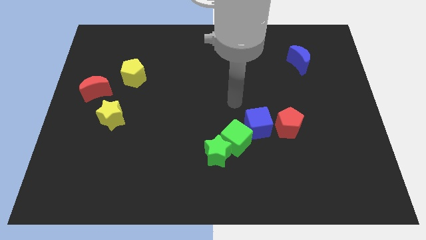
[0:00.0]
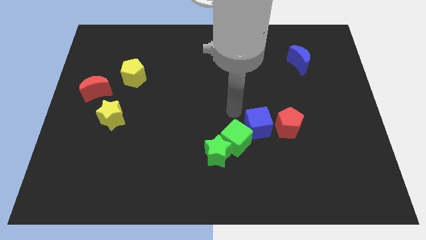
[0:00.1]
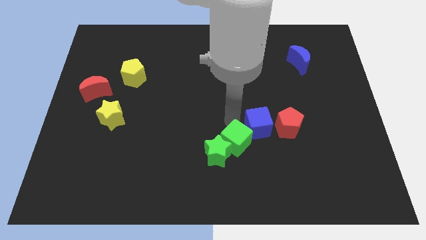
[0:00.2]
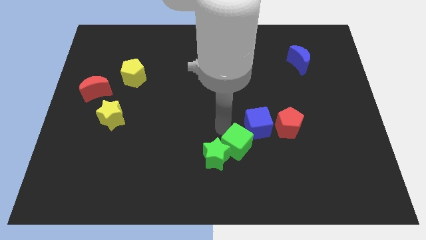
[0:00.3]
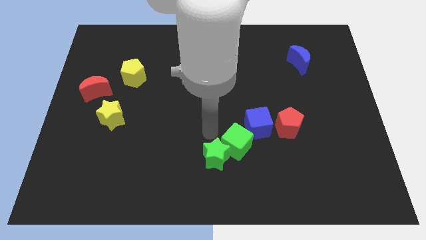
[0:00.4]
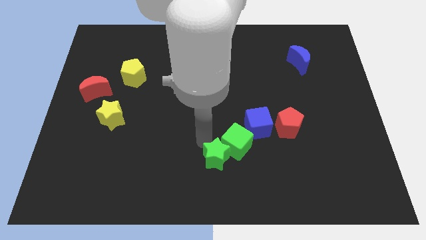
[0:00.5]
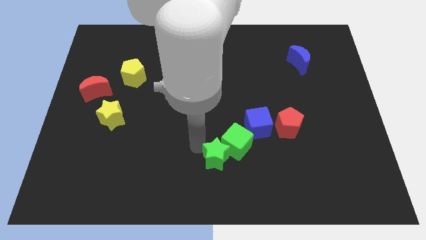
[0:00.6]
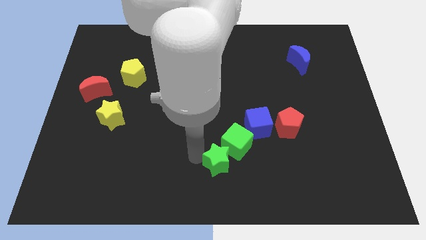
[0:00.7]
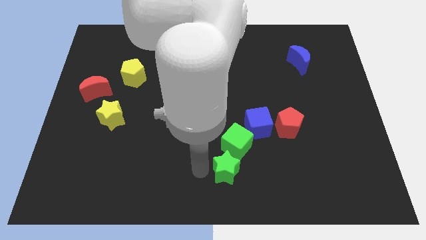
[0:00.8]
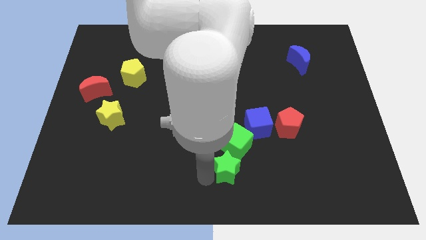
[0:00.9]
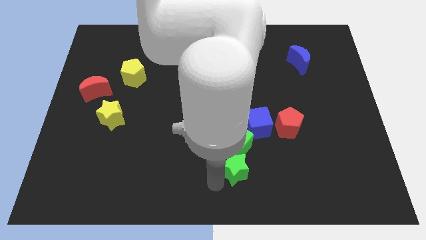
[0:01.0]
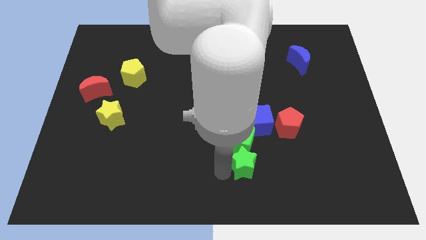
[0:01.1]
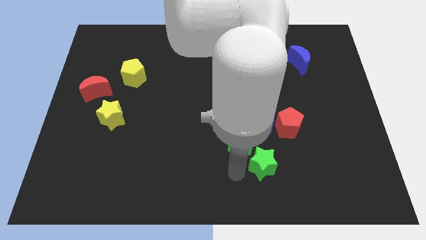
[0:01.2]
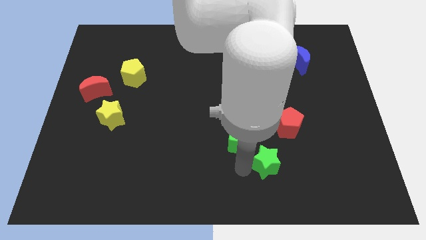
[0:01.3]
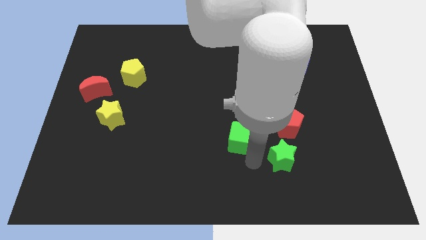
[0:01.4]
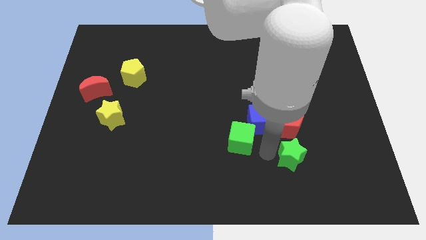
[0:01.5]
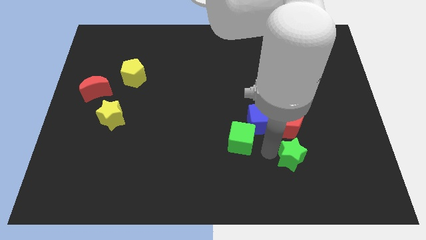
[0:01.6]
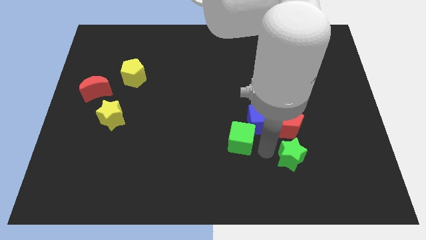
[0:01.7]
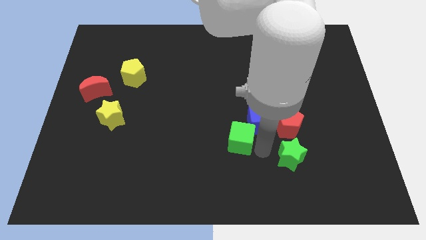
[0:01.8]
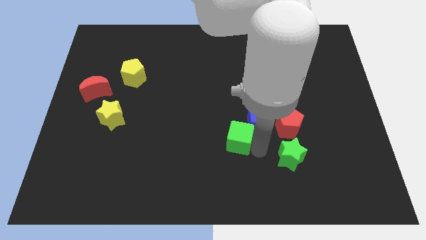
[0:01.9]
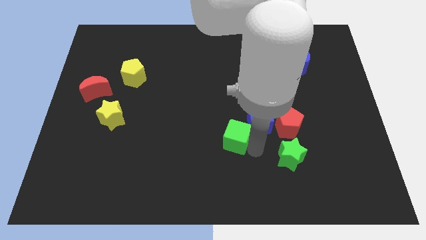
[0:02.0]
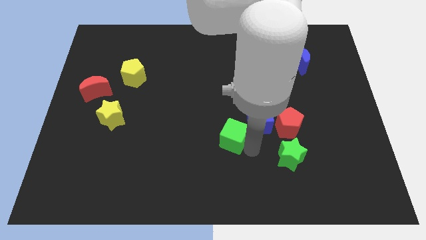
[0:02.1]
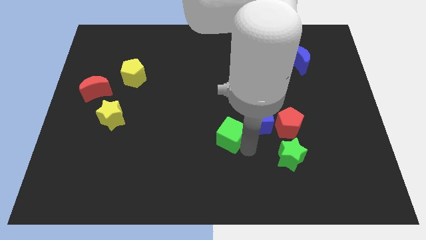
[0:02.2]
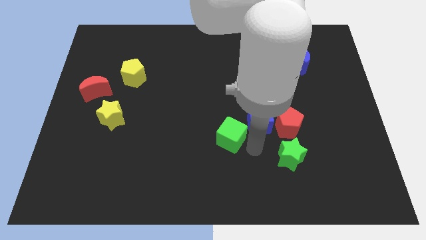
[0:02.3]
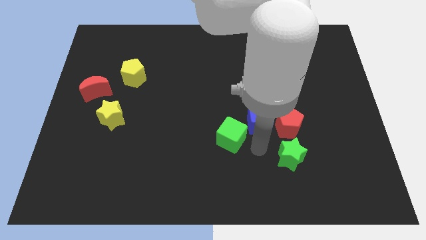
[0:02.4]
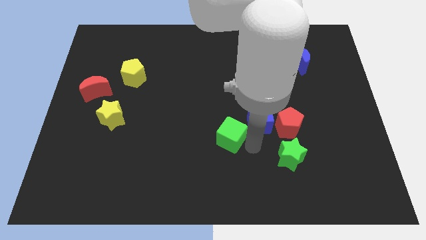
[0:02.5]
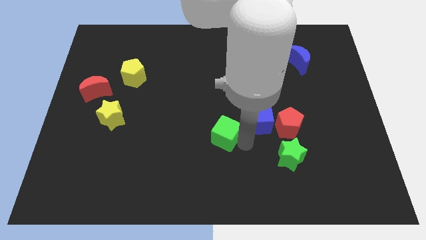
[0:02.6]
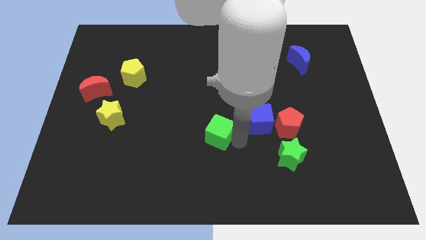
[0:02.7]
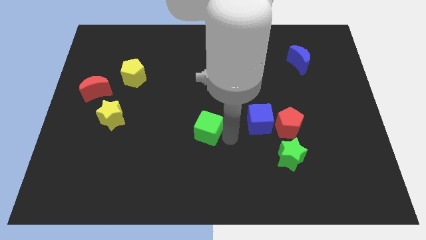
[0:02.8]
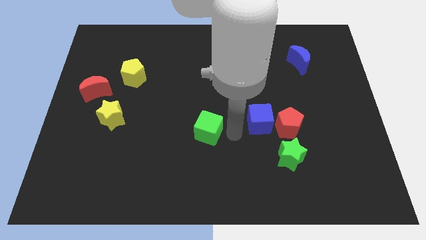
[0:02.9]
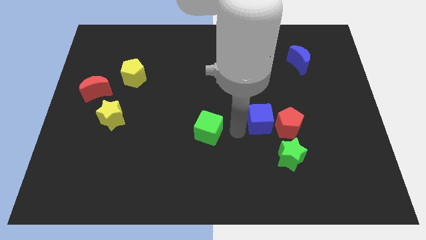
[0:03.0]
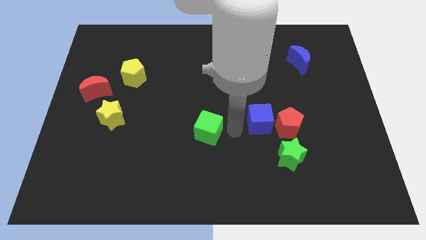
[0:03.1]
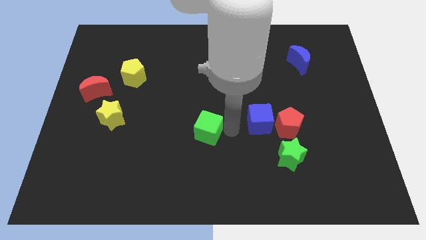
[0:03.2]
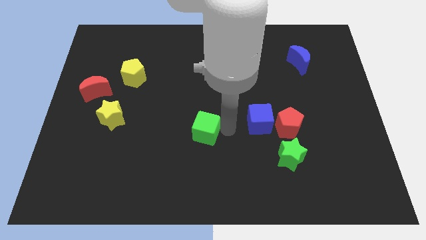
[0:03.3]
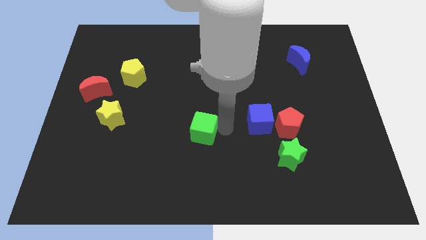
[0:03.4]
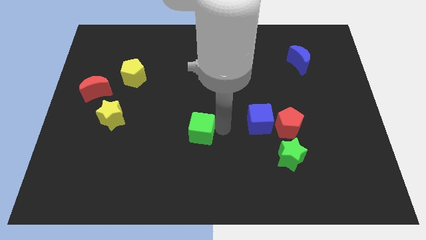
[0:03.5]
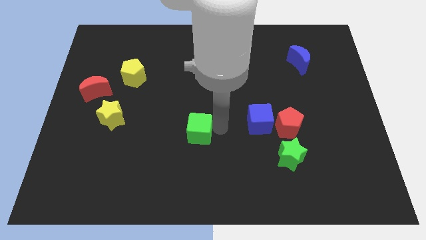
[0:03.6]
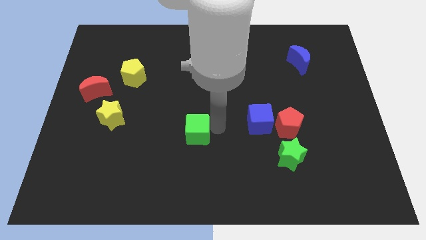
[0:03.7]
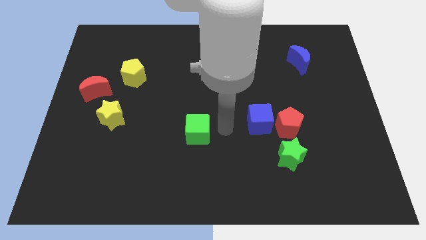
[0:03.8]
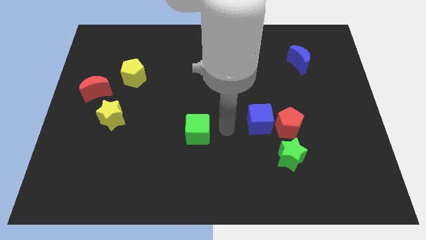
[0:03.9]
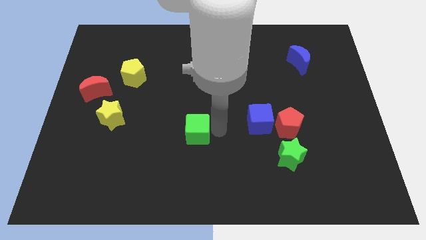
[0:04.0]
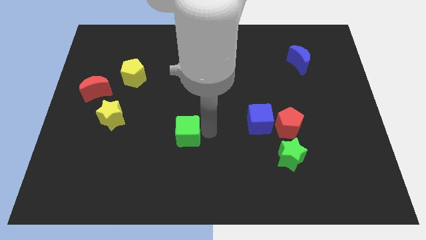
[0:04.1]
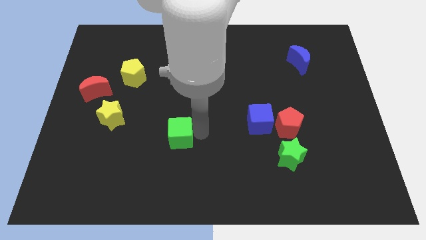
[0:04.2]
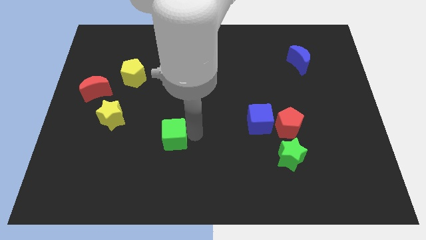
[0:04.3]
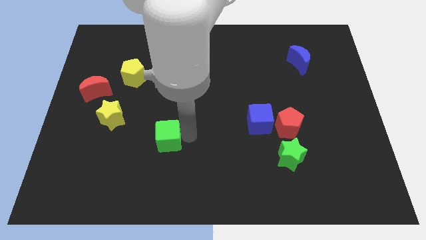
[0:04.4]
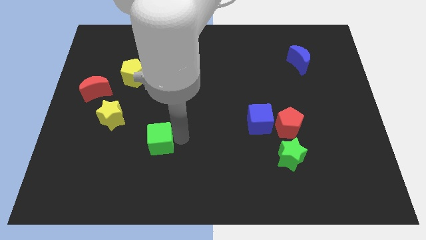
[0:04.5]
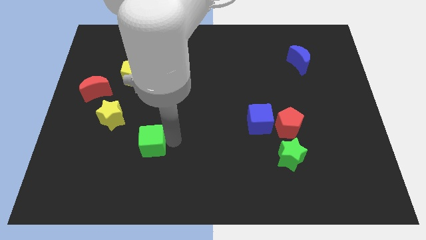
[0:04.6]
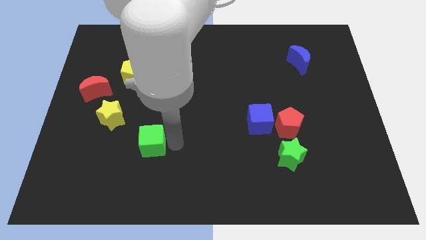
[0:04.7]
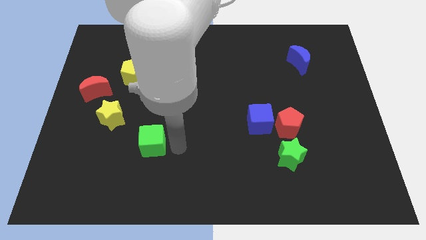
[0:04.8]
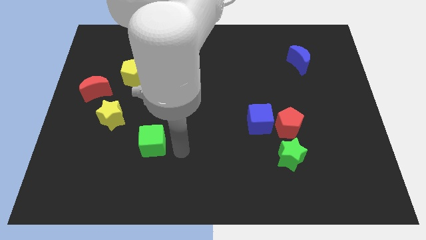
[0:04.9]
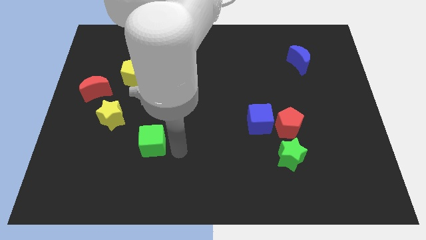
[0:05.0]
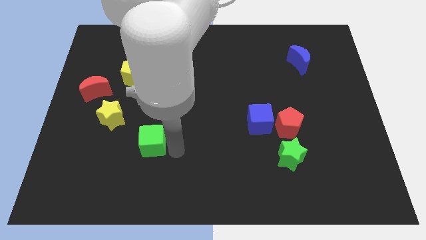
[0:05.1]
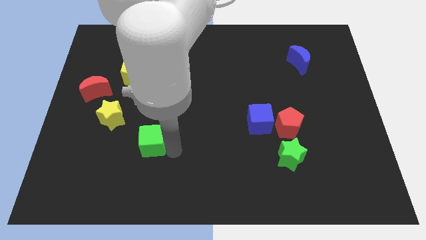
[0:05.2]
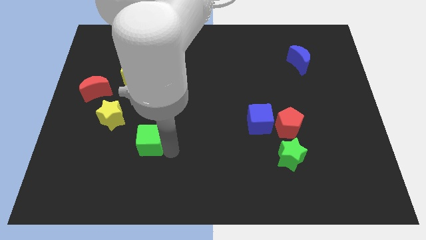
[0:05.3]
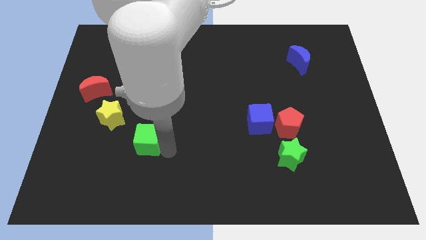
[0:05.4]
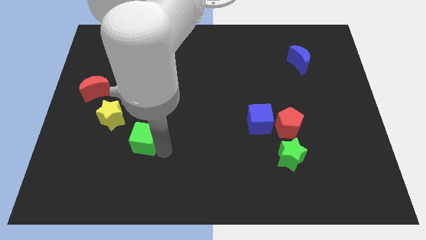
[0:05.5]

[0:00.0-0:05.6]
push the green cube to the left

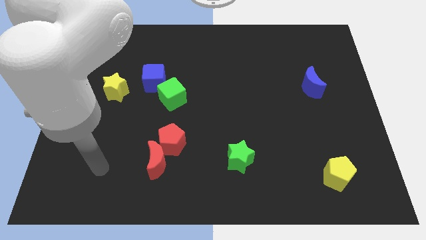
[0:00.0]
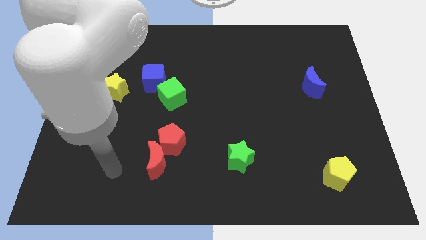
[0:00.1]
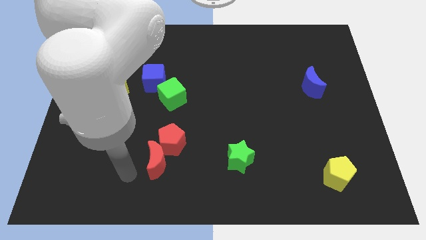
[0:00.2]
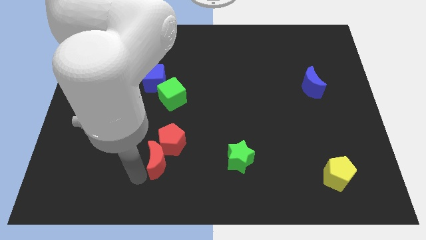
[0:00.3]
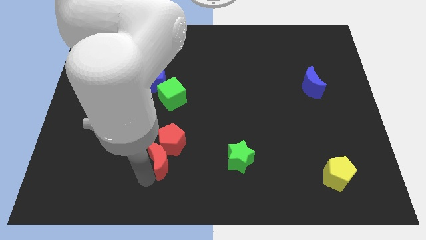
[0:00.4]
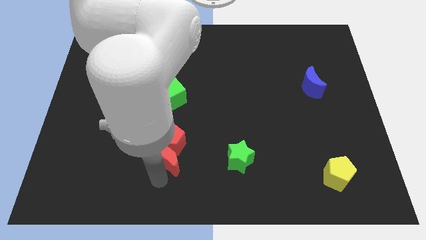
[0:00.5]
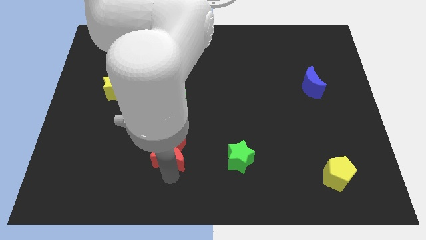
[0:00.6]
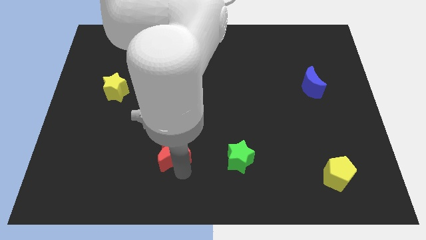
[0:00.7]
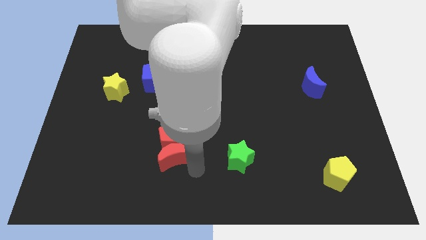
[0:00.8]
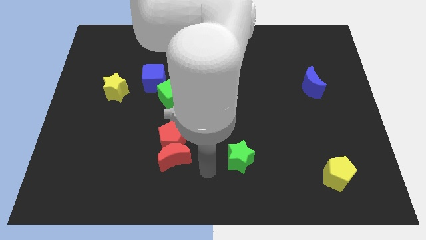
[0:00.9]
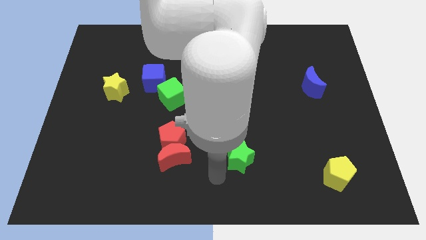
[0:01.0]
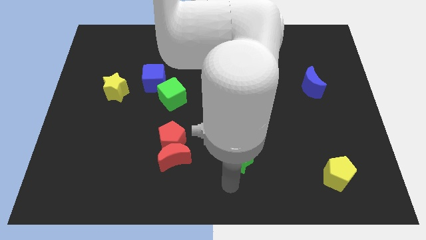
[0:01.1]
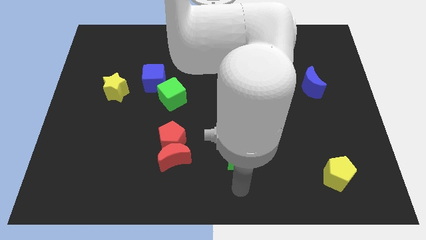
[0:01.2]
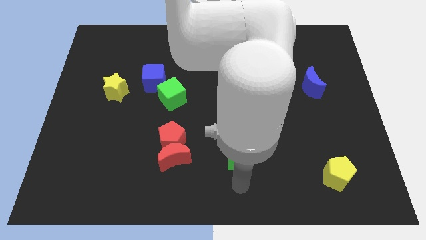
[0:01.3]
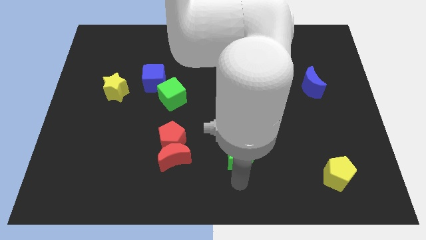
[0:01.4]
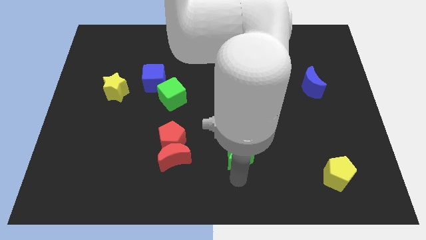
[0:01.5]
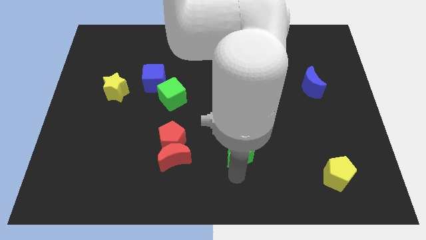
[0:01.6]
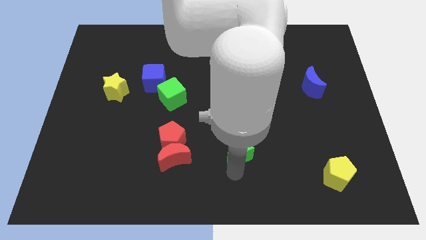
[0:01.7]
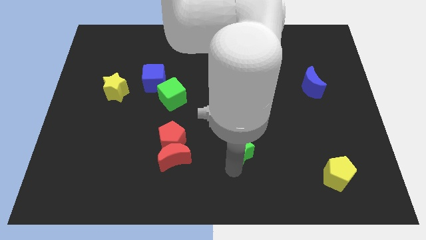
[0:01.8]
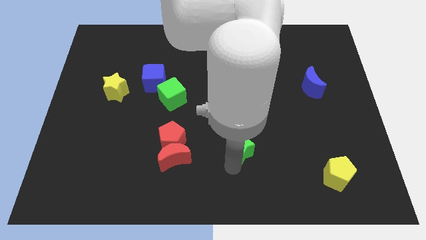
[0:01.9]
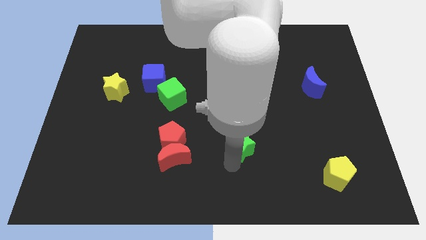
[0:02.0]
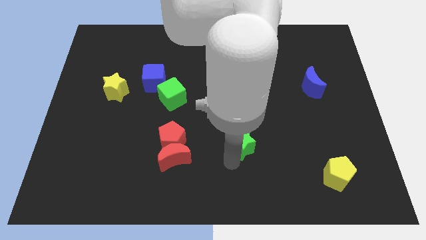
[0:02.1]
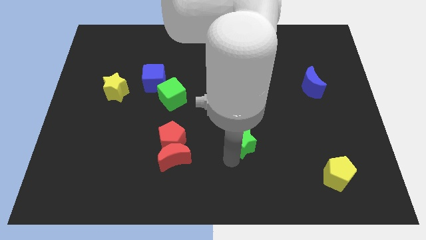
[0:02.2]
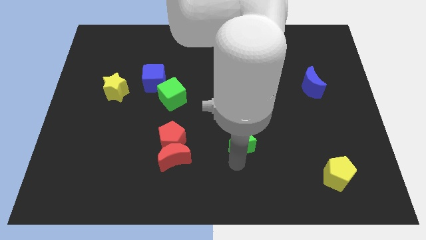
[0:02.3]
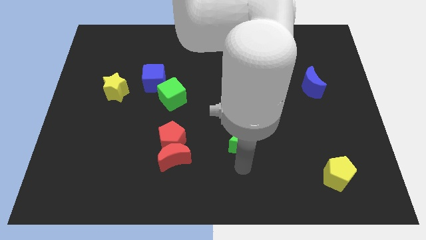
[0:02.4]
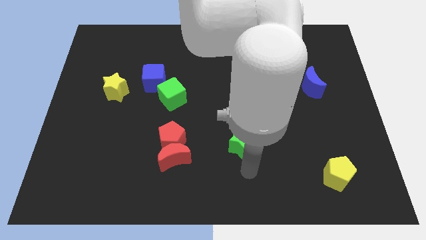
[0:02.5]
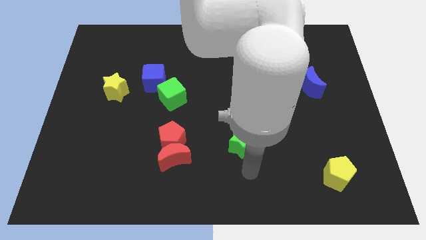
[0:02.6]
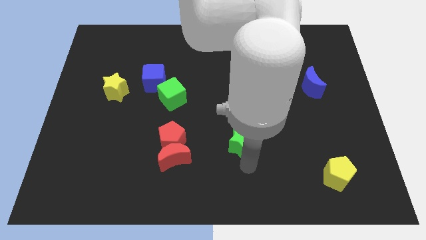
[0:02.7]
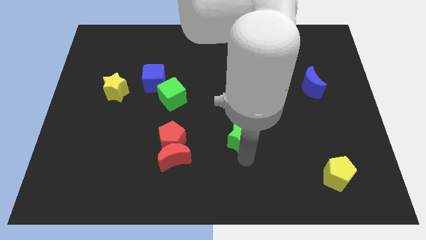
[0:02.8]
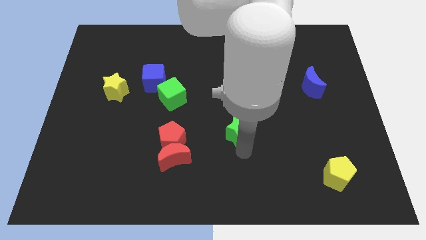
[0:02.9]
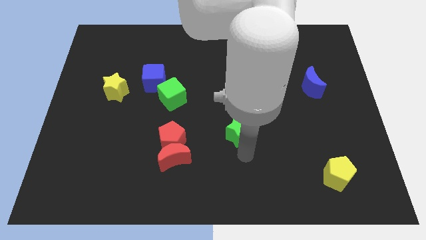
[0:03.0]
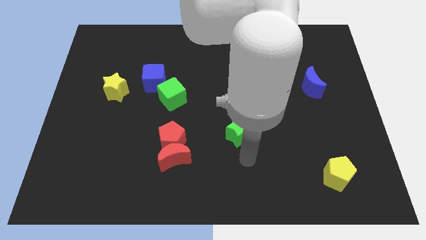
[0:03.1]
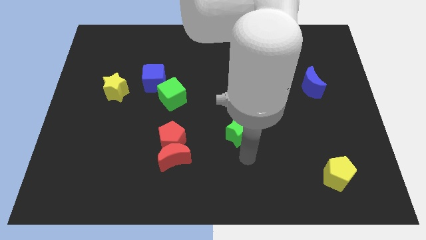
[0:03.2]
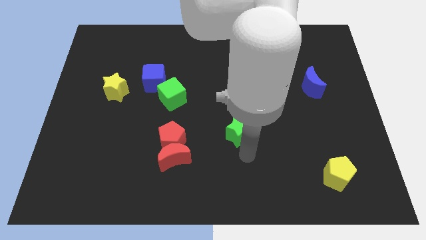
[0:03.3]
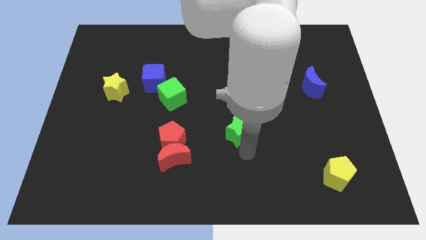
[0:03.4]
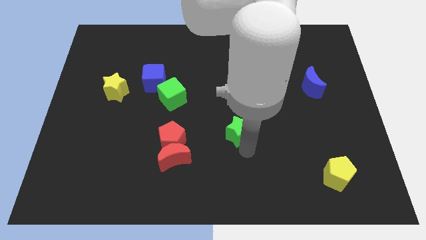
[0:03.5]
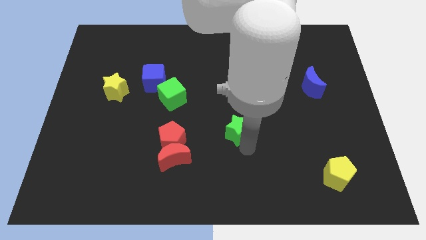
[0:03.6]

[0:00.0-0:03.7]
slightly slide the green star upwards
